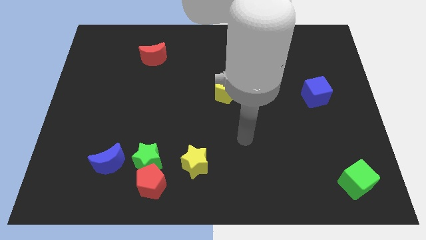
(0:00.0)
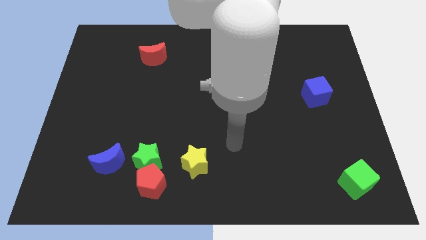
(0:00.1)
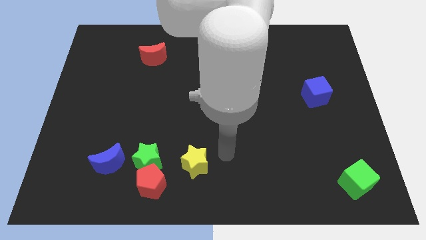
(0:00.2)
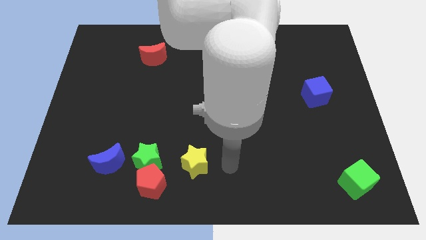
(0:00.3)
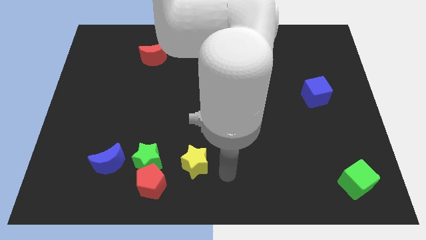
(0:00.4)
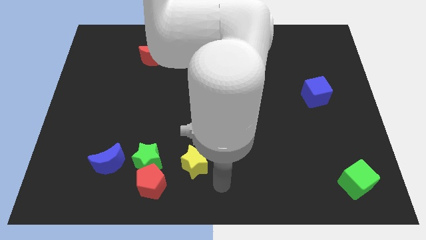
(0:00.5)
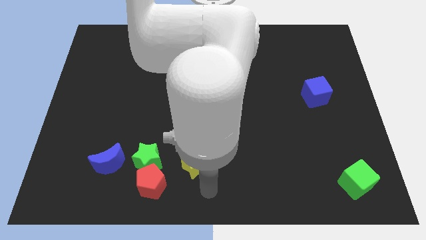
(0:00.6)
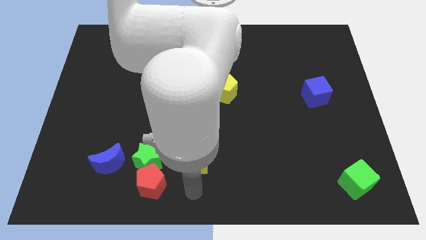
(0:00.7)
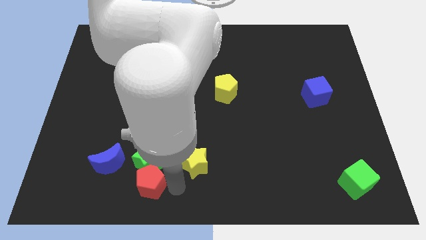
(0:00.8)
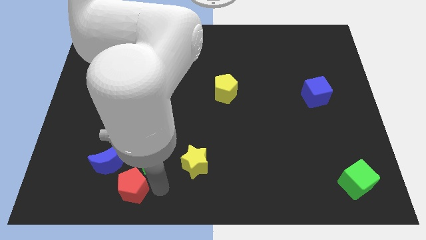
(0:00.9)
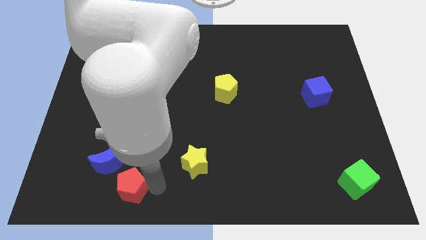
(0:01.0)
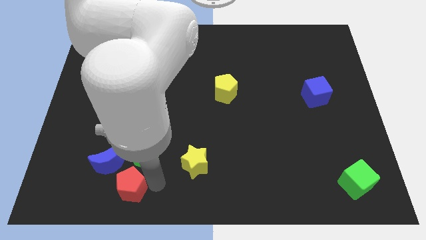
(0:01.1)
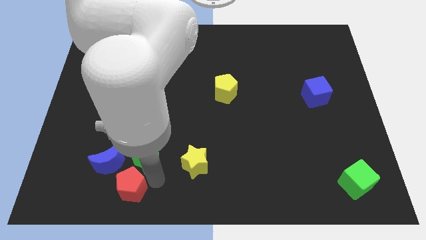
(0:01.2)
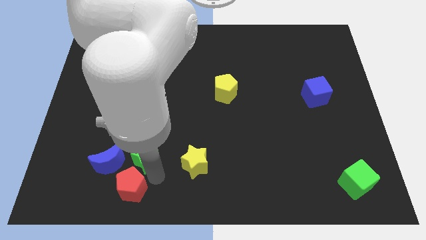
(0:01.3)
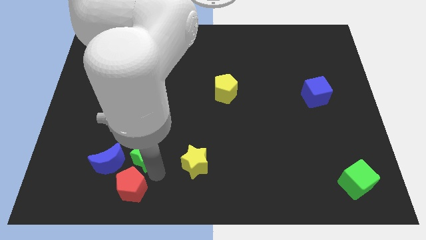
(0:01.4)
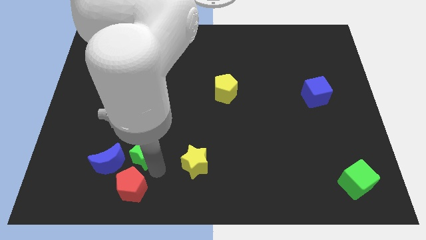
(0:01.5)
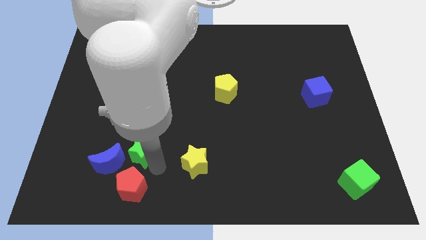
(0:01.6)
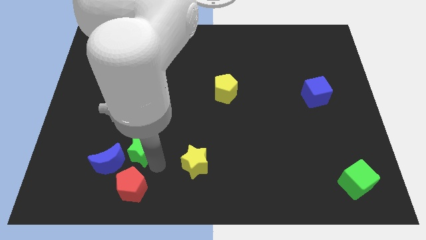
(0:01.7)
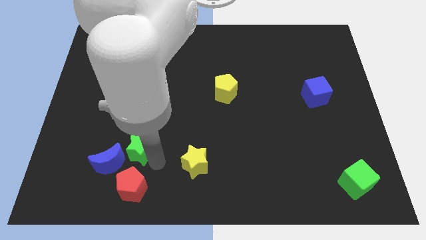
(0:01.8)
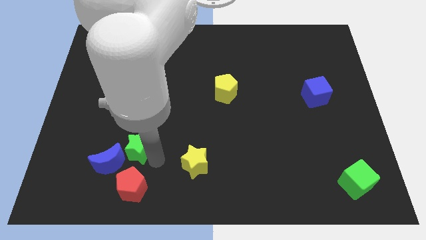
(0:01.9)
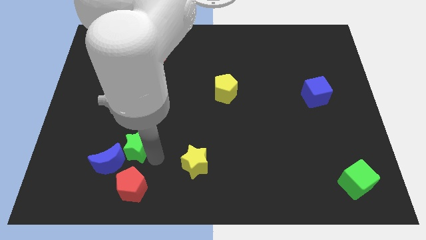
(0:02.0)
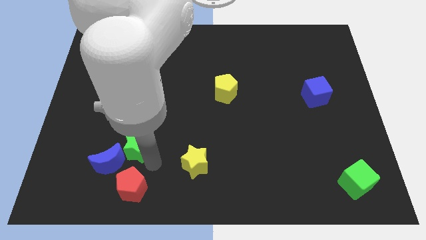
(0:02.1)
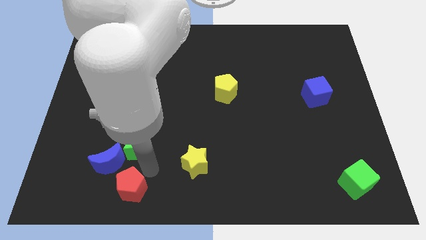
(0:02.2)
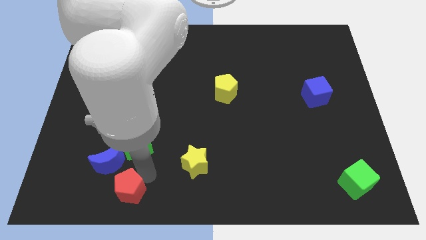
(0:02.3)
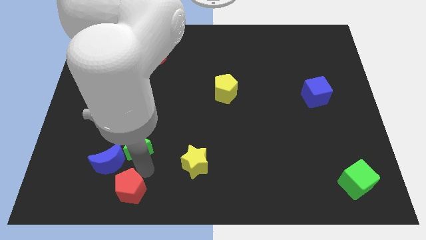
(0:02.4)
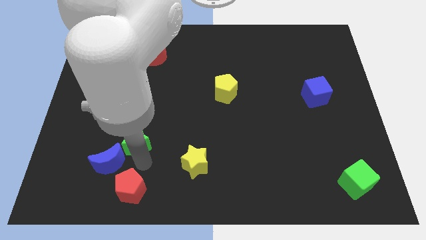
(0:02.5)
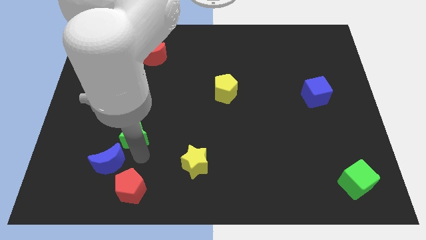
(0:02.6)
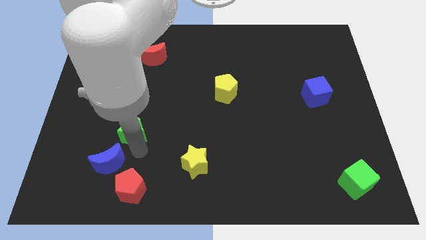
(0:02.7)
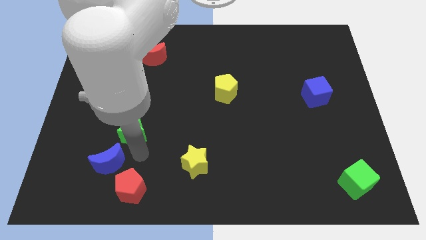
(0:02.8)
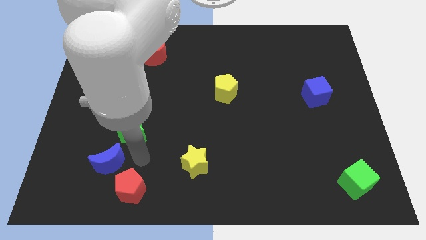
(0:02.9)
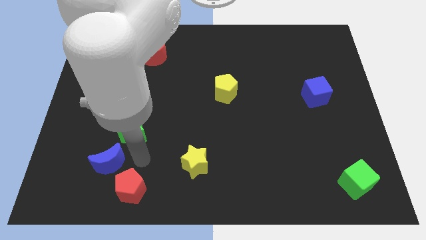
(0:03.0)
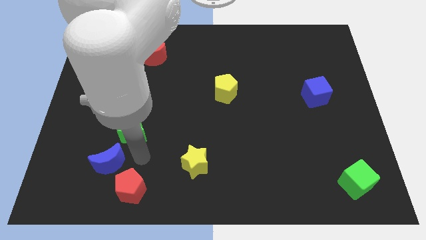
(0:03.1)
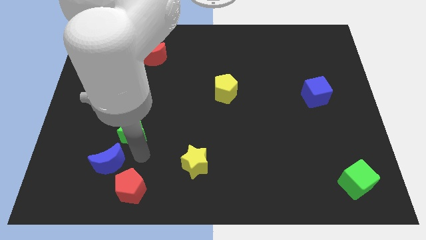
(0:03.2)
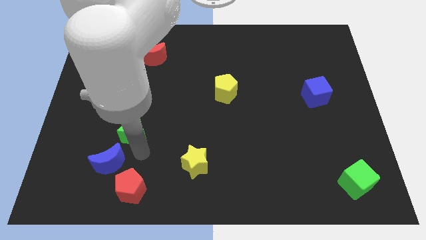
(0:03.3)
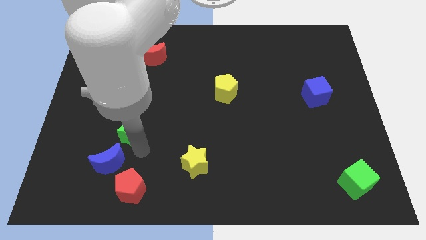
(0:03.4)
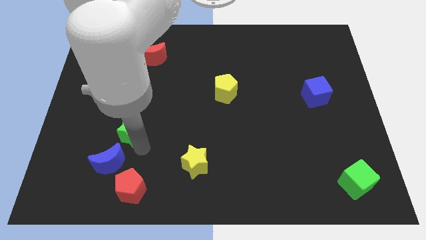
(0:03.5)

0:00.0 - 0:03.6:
separate the green star from the group

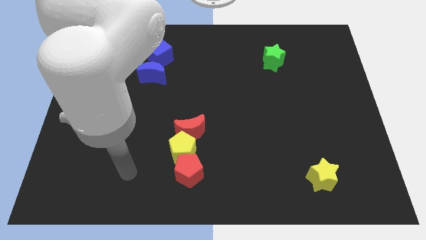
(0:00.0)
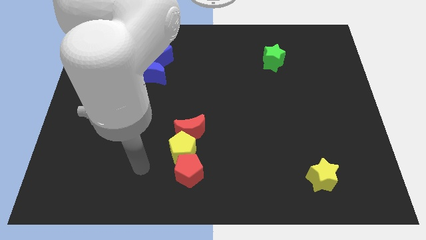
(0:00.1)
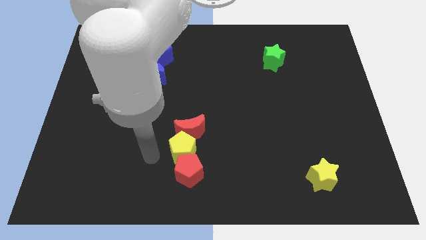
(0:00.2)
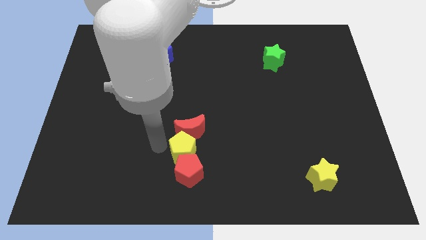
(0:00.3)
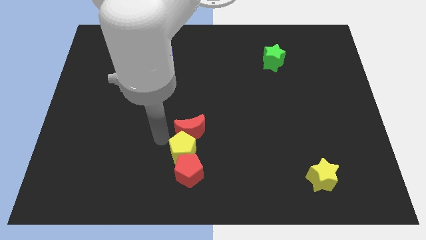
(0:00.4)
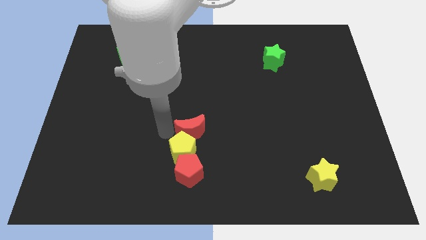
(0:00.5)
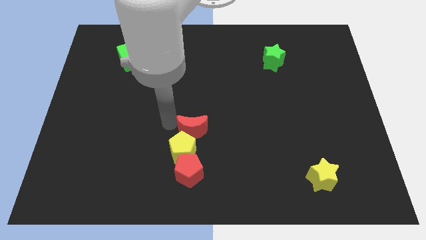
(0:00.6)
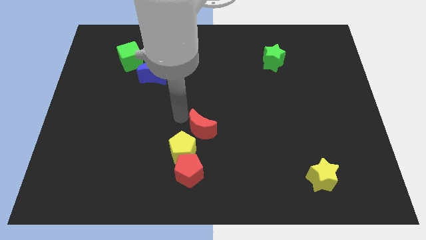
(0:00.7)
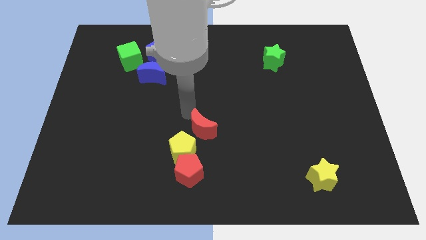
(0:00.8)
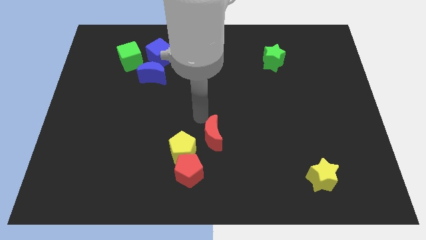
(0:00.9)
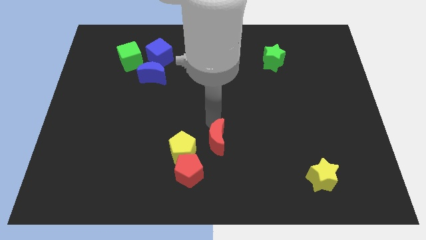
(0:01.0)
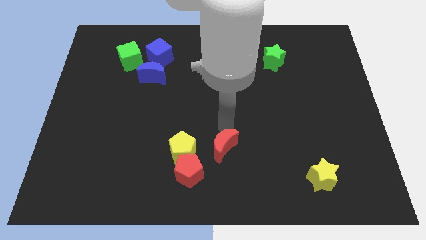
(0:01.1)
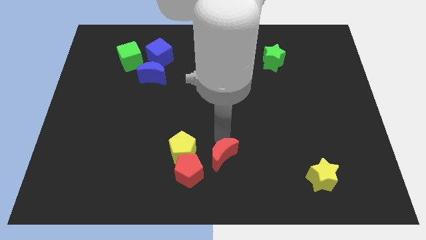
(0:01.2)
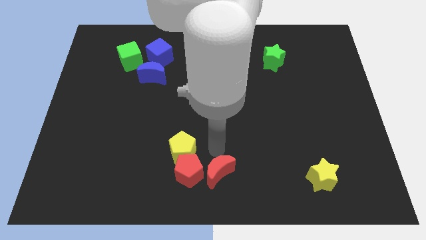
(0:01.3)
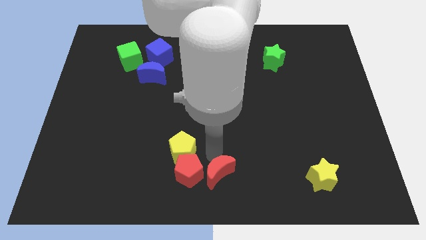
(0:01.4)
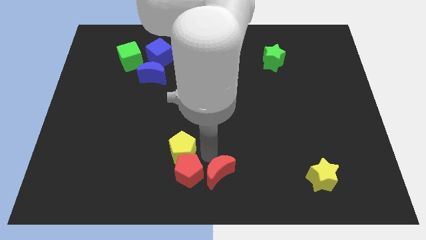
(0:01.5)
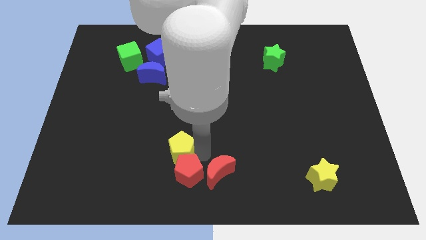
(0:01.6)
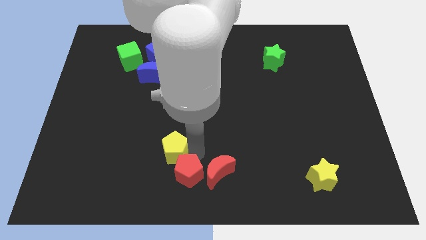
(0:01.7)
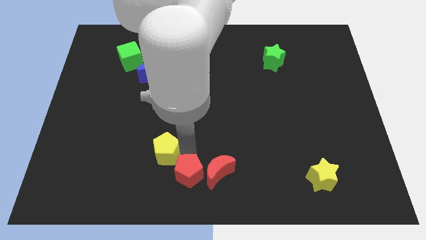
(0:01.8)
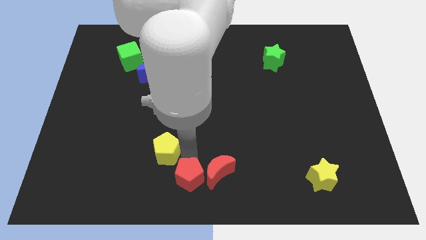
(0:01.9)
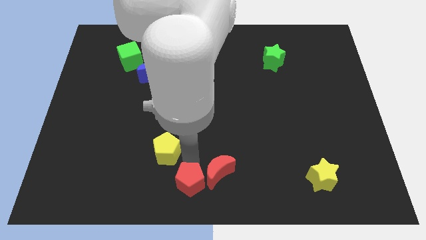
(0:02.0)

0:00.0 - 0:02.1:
move the yellow pentagon away from the red moon and red pentagon

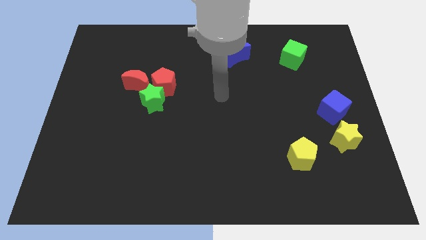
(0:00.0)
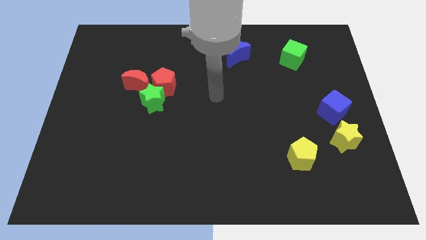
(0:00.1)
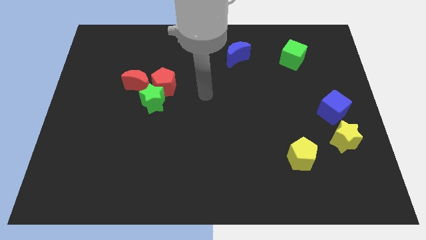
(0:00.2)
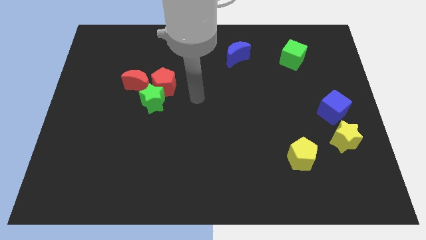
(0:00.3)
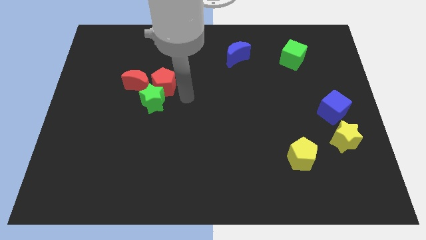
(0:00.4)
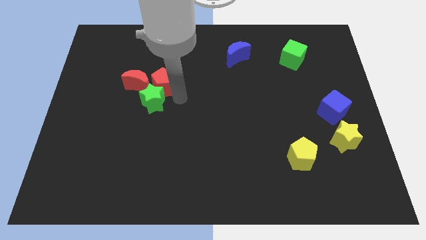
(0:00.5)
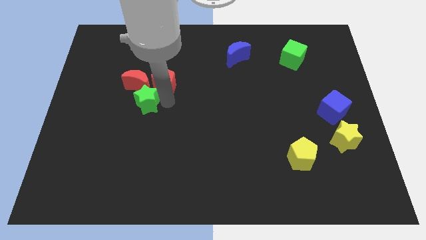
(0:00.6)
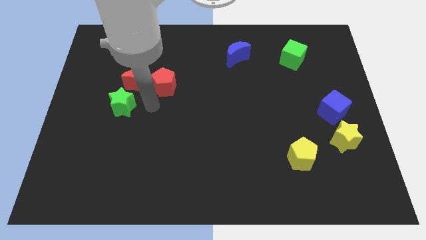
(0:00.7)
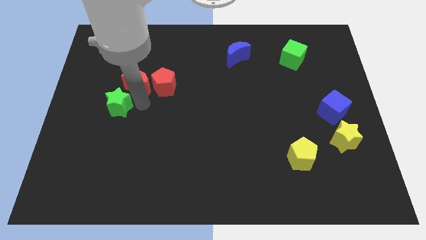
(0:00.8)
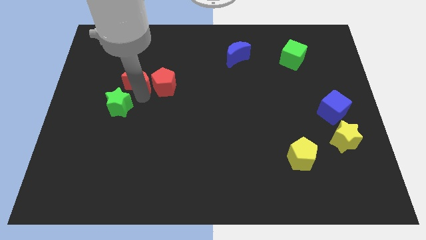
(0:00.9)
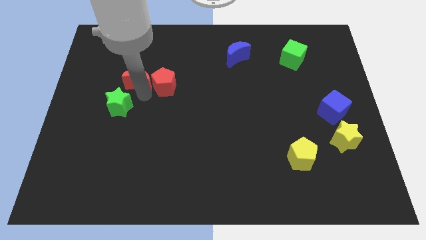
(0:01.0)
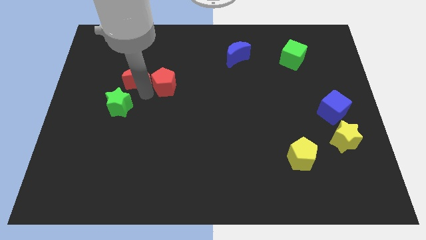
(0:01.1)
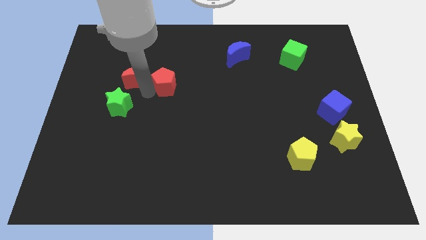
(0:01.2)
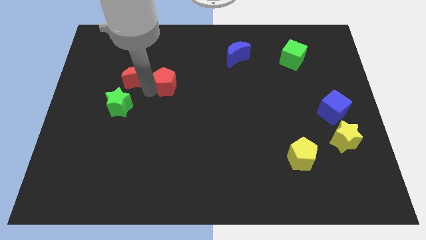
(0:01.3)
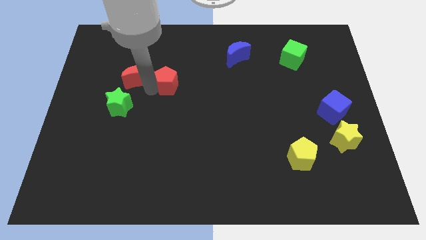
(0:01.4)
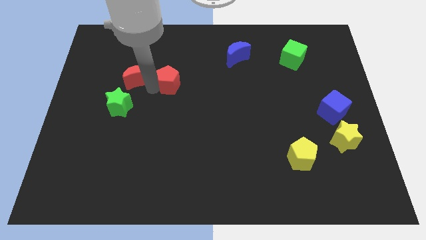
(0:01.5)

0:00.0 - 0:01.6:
move the red pentagon away from the green star and red moon

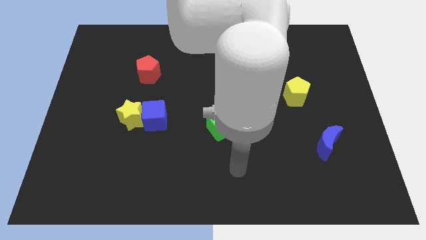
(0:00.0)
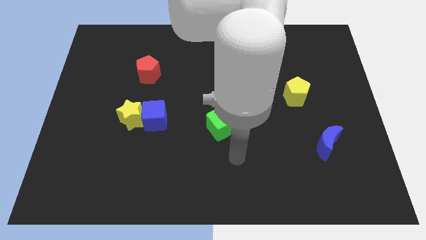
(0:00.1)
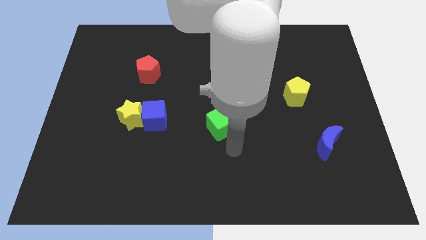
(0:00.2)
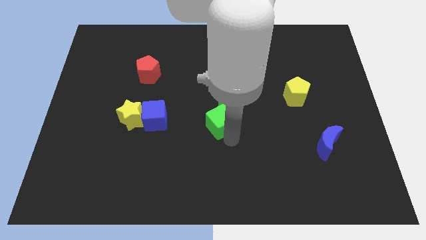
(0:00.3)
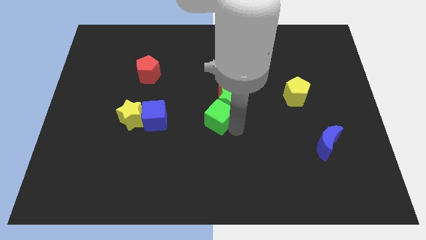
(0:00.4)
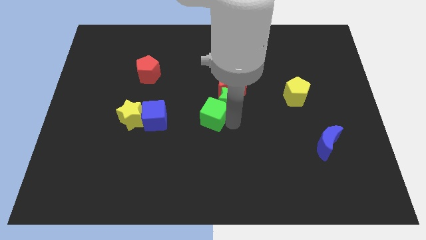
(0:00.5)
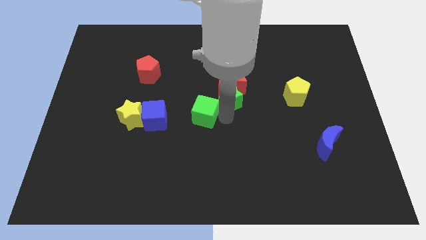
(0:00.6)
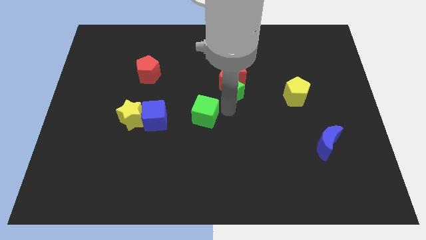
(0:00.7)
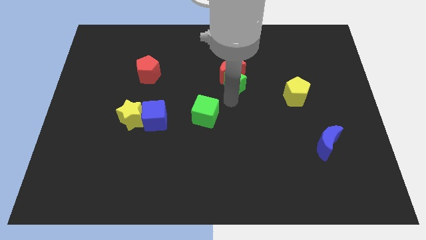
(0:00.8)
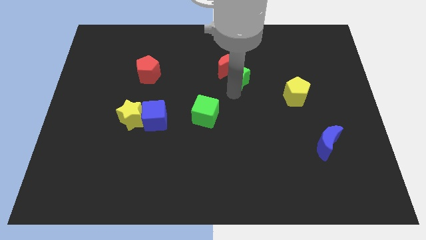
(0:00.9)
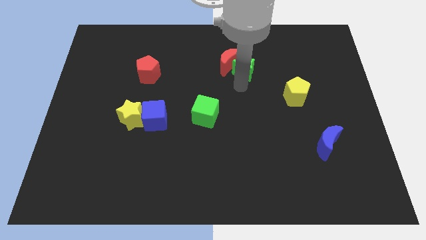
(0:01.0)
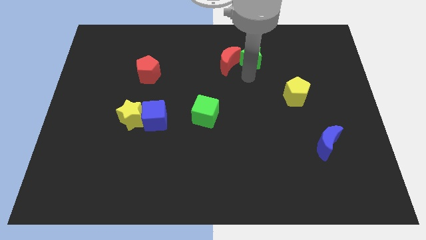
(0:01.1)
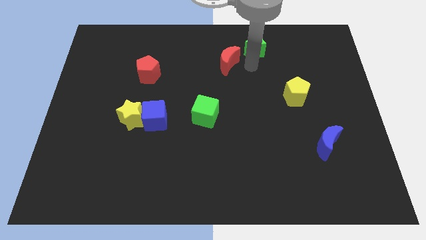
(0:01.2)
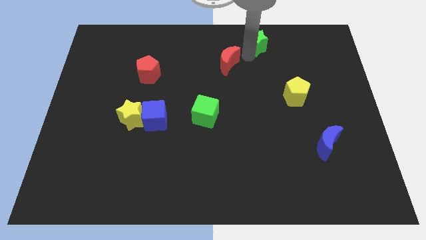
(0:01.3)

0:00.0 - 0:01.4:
pull the red moon apart from the green star

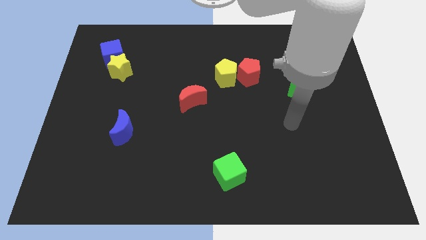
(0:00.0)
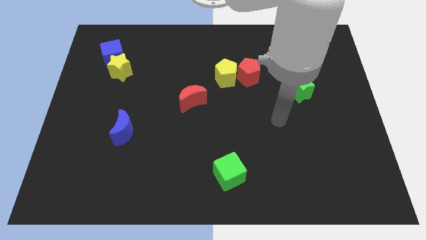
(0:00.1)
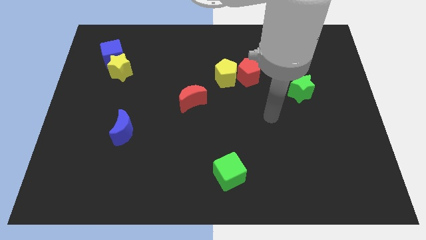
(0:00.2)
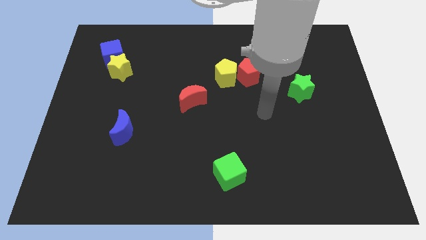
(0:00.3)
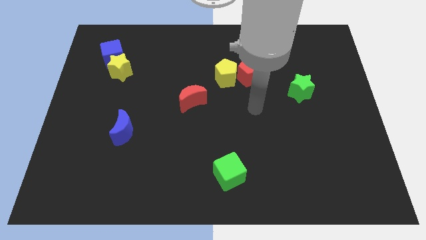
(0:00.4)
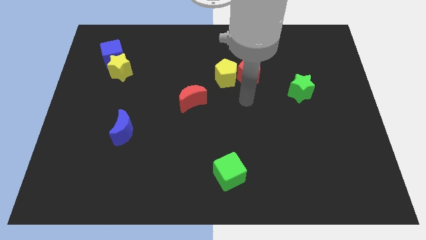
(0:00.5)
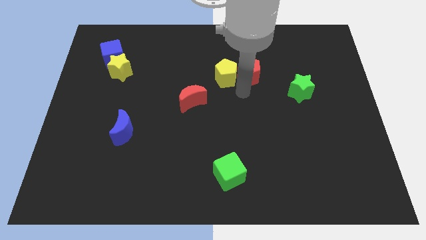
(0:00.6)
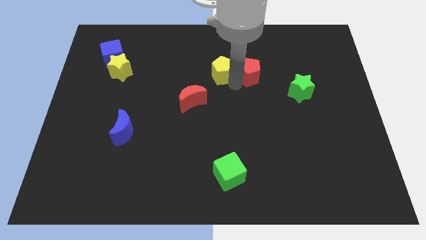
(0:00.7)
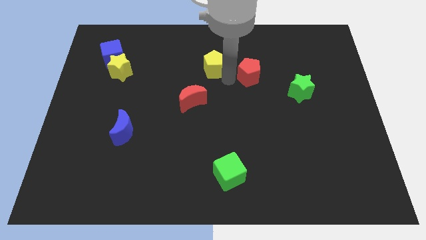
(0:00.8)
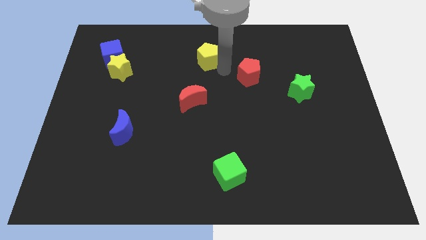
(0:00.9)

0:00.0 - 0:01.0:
move the red pentagon away from the yellow pentagon
